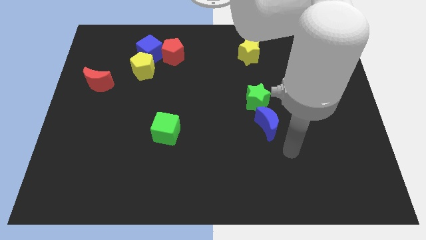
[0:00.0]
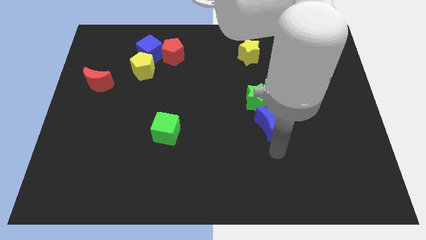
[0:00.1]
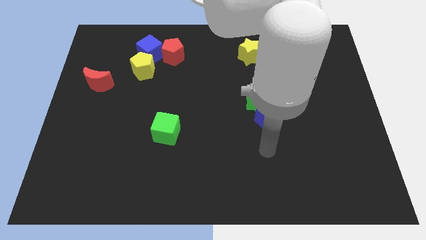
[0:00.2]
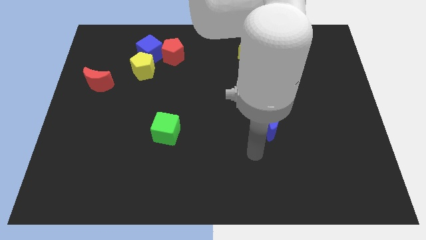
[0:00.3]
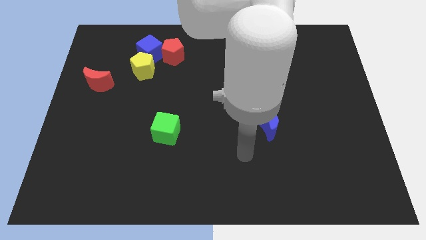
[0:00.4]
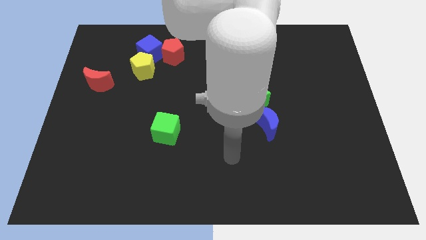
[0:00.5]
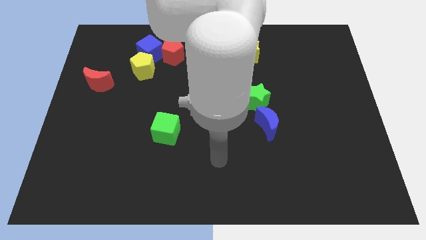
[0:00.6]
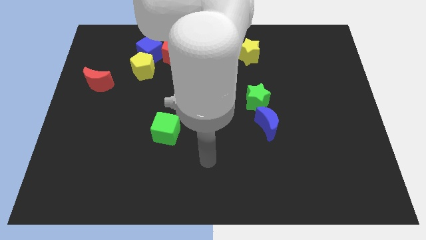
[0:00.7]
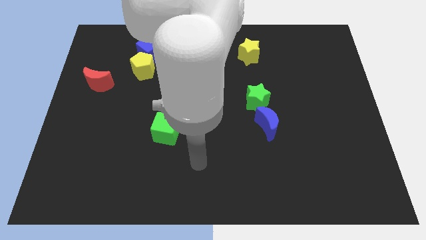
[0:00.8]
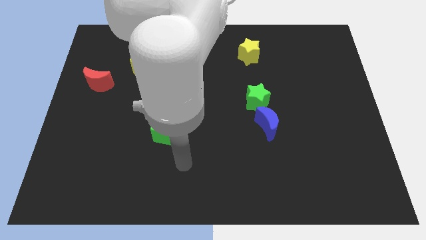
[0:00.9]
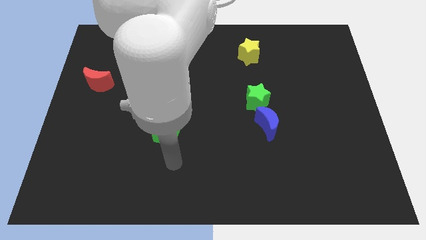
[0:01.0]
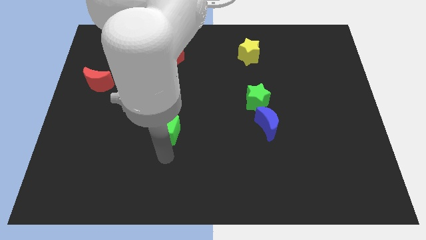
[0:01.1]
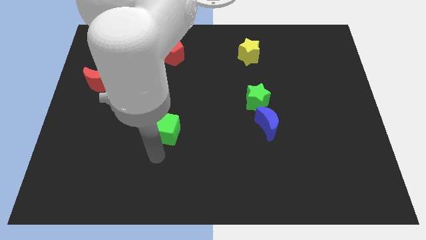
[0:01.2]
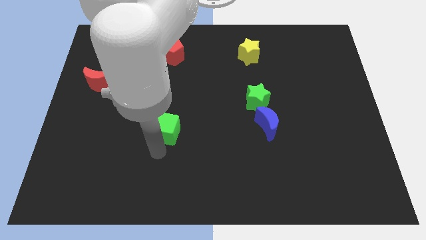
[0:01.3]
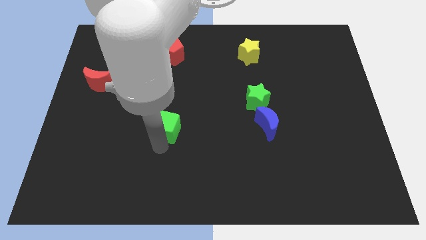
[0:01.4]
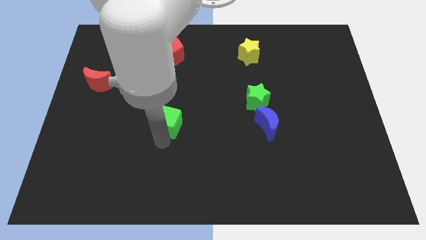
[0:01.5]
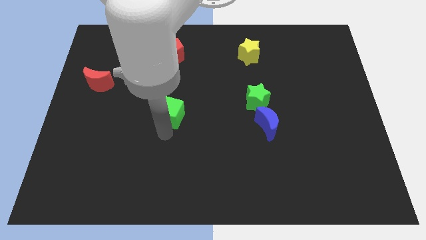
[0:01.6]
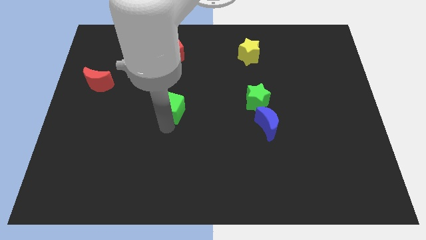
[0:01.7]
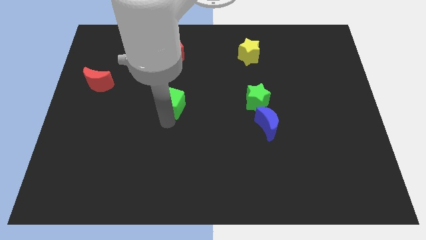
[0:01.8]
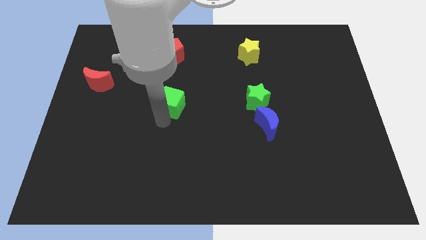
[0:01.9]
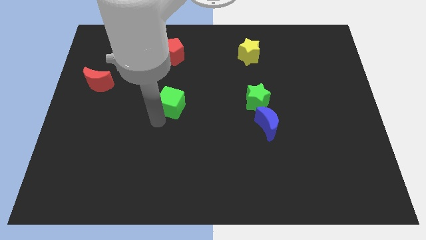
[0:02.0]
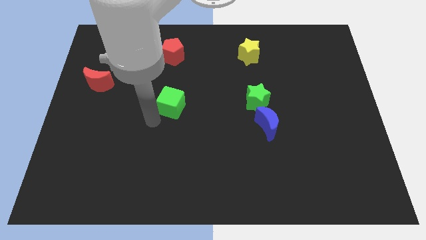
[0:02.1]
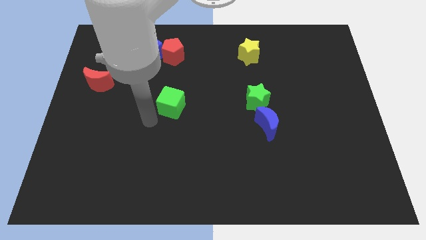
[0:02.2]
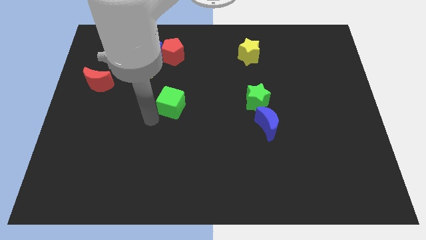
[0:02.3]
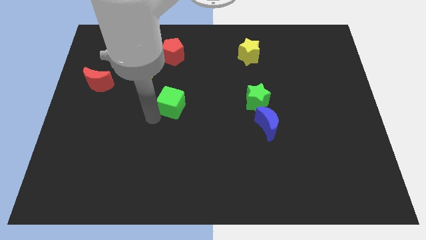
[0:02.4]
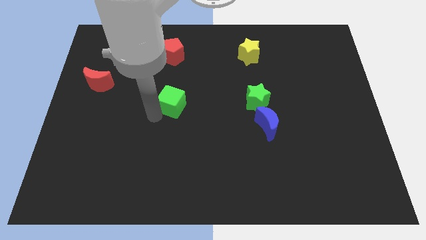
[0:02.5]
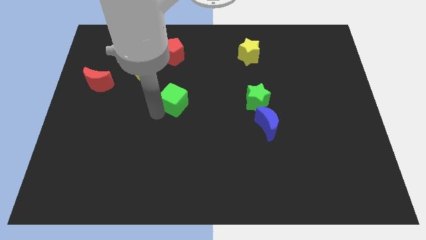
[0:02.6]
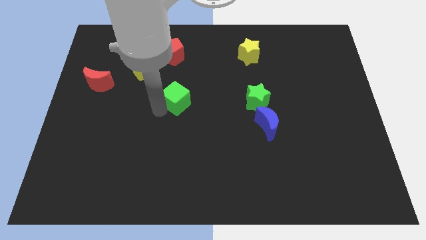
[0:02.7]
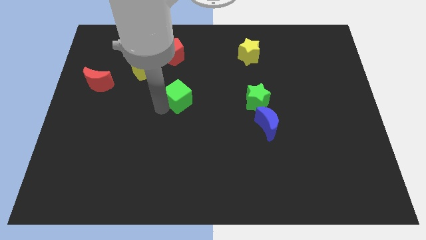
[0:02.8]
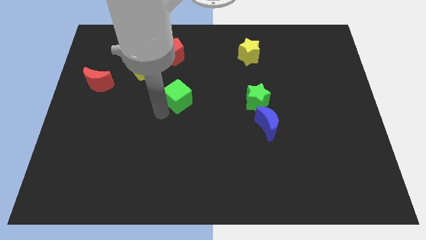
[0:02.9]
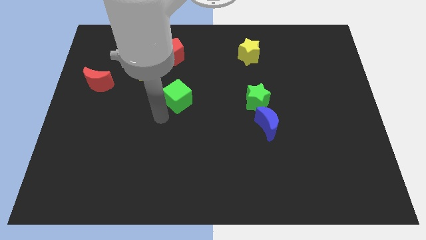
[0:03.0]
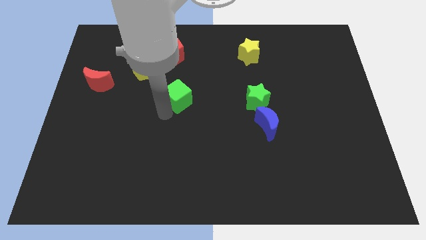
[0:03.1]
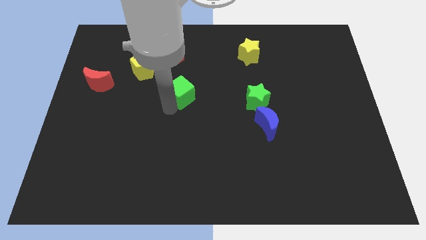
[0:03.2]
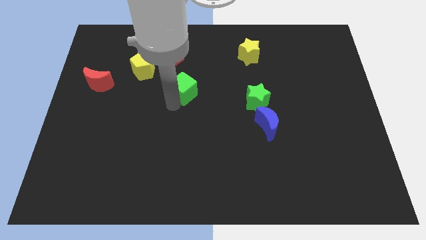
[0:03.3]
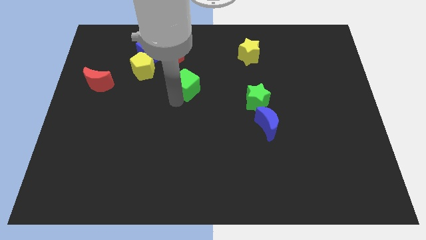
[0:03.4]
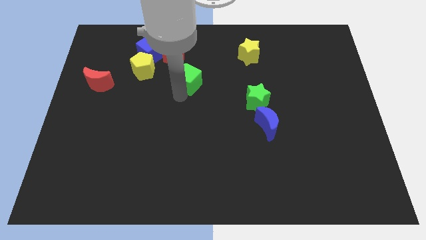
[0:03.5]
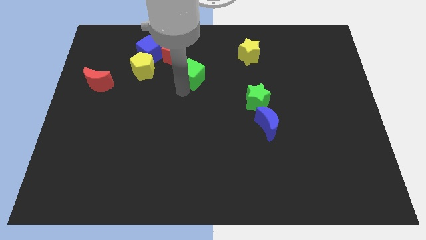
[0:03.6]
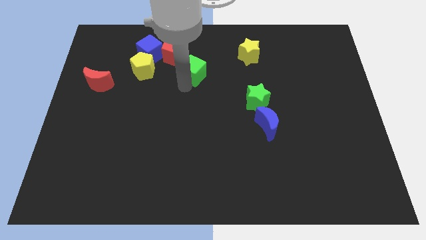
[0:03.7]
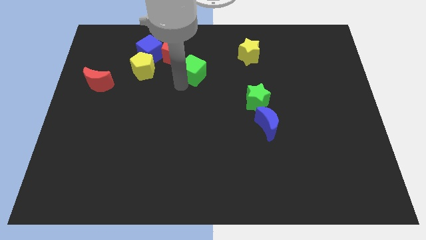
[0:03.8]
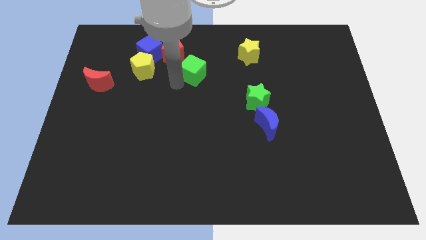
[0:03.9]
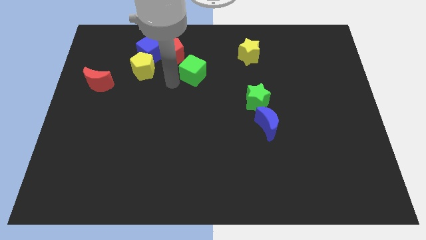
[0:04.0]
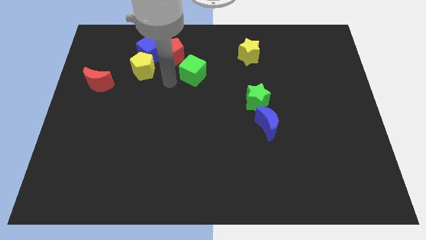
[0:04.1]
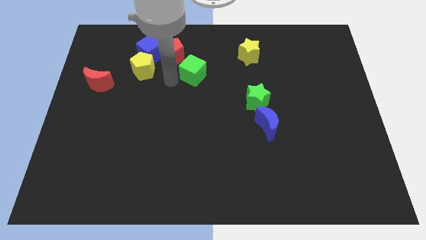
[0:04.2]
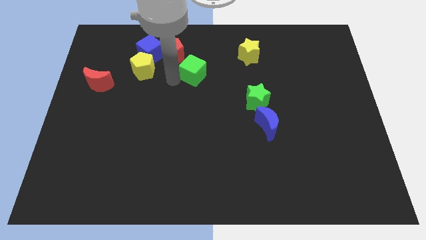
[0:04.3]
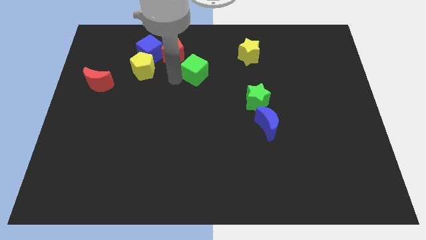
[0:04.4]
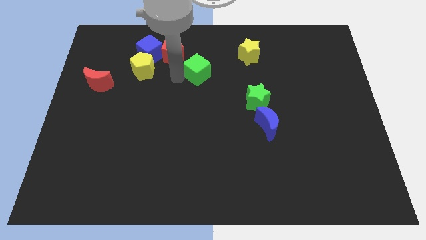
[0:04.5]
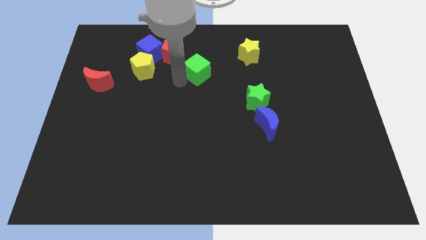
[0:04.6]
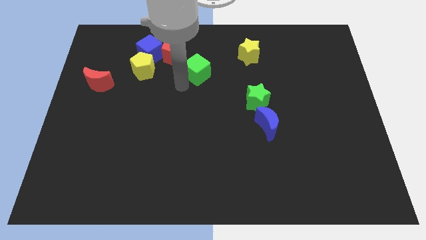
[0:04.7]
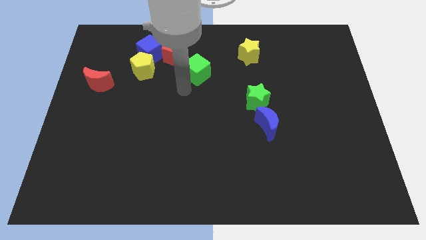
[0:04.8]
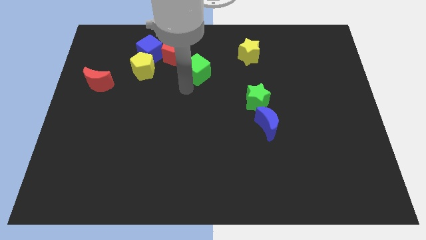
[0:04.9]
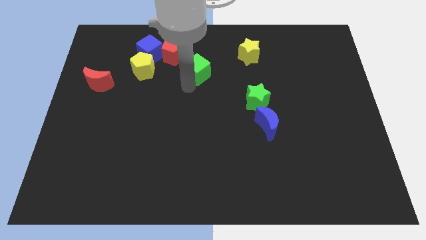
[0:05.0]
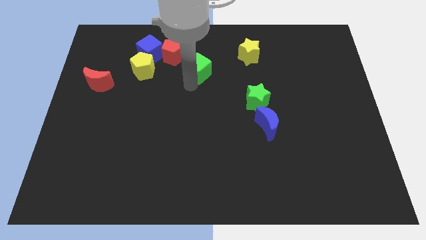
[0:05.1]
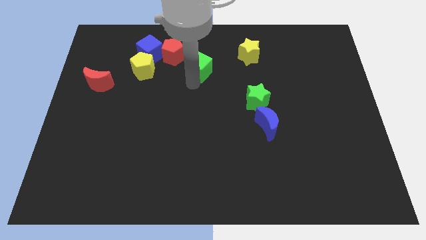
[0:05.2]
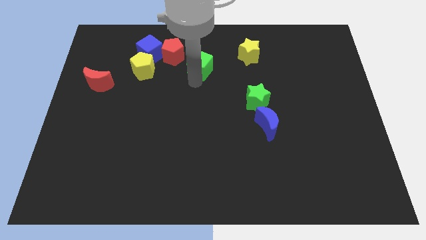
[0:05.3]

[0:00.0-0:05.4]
slide the green cube to the left of the yellow star

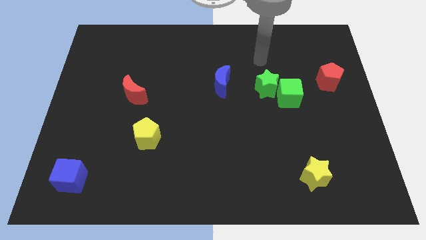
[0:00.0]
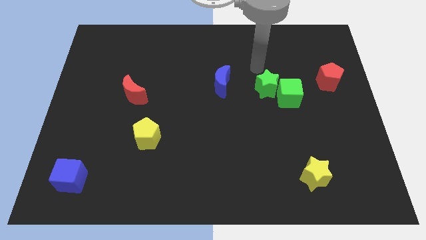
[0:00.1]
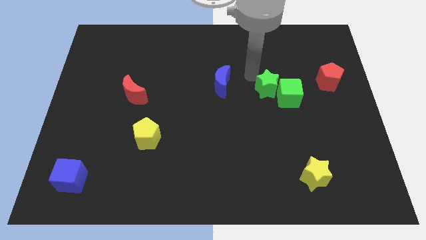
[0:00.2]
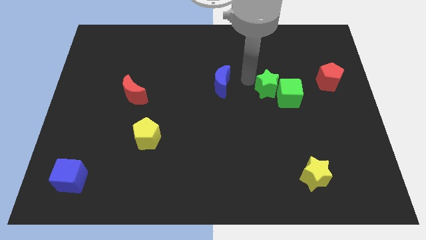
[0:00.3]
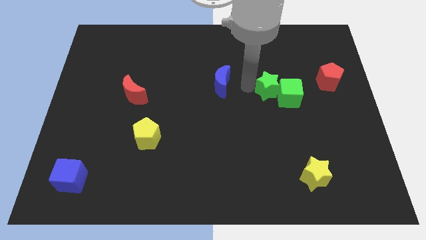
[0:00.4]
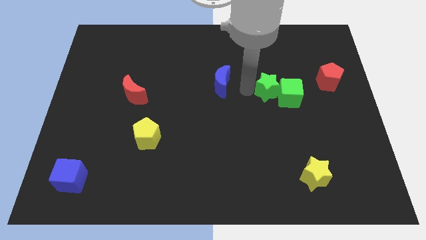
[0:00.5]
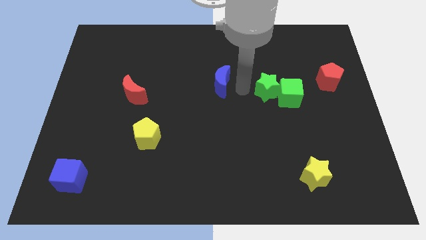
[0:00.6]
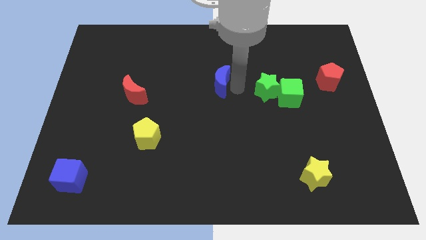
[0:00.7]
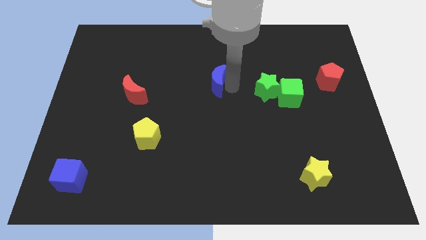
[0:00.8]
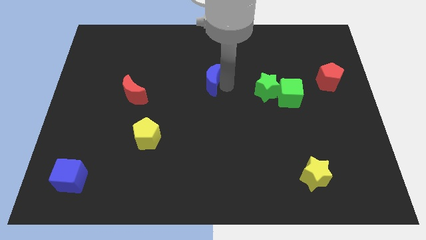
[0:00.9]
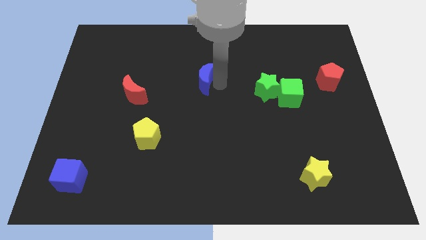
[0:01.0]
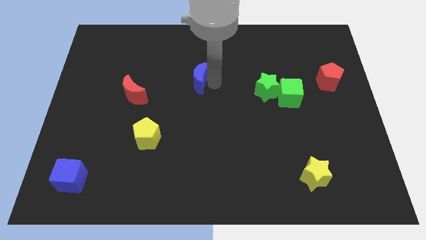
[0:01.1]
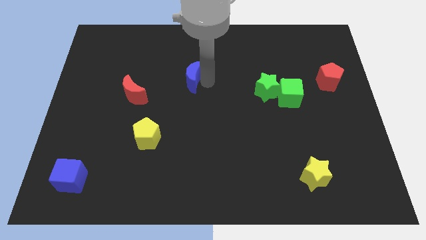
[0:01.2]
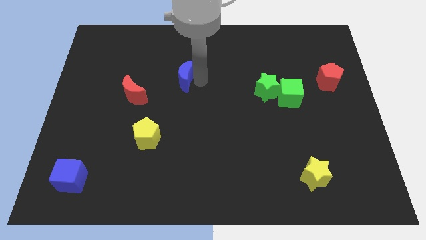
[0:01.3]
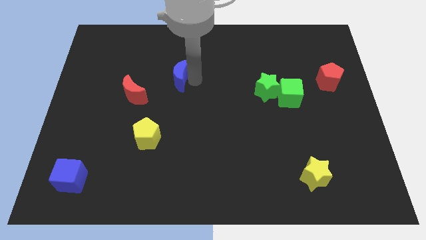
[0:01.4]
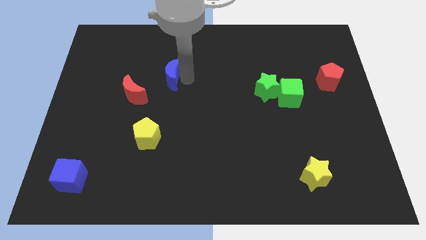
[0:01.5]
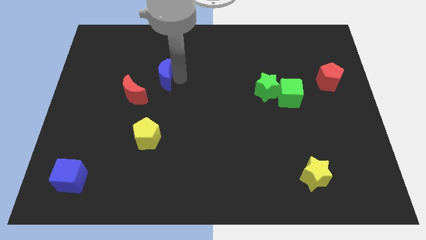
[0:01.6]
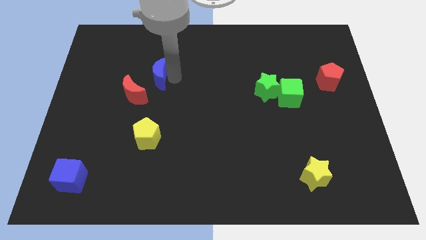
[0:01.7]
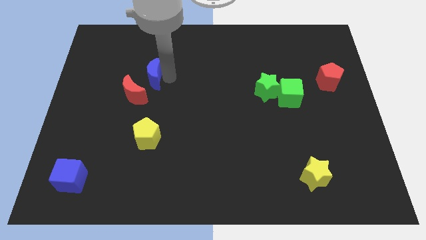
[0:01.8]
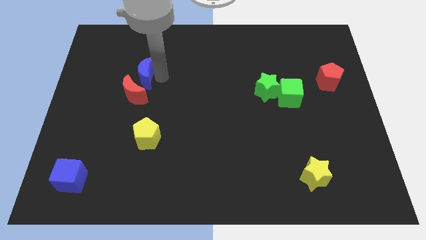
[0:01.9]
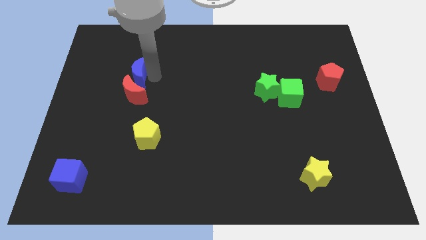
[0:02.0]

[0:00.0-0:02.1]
move the blue moon to the top left of the red moon
